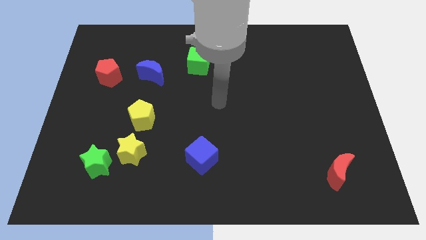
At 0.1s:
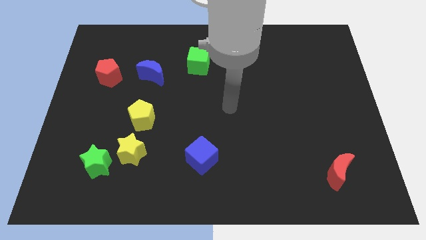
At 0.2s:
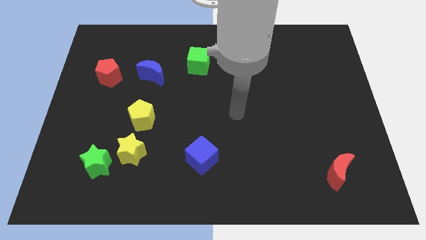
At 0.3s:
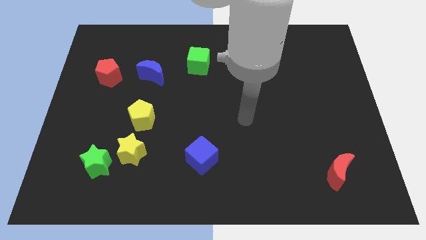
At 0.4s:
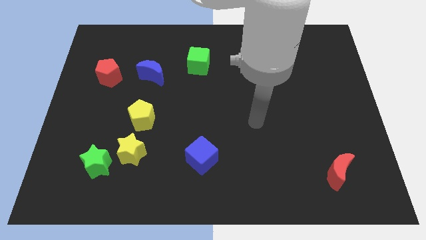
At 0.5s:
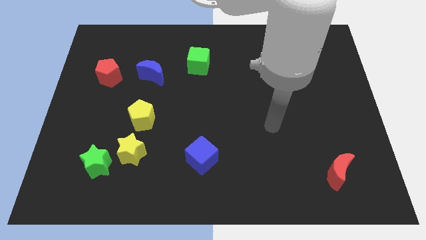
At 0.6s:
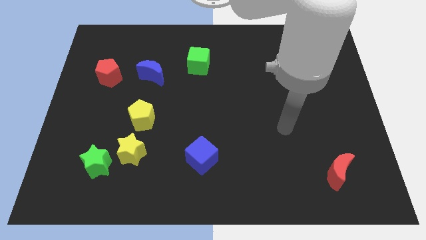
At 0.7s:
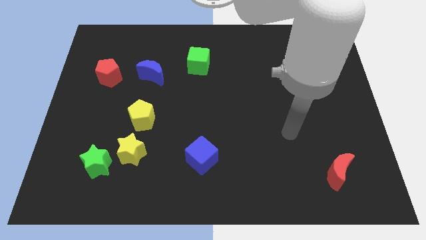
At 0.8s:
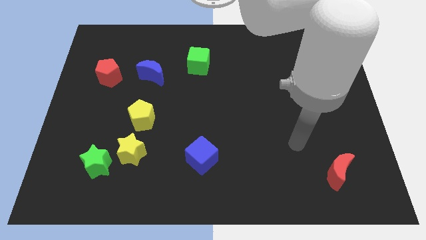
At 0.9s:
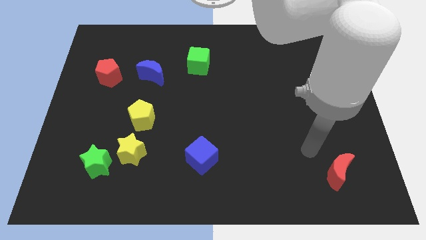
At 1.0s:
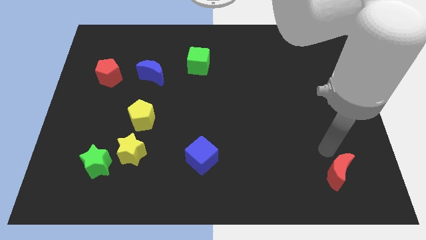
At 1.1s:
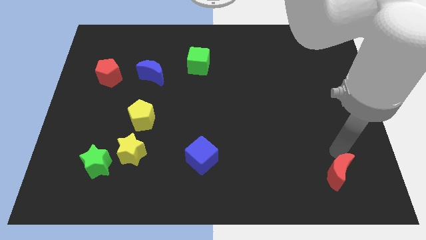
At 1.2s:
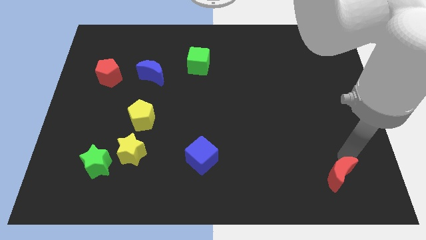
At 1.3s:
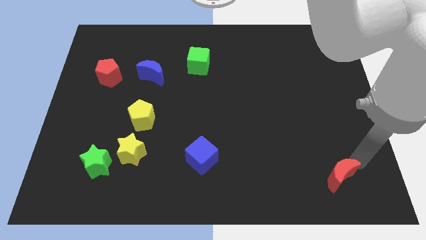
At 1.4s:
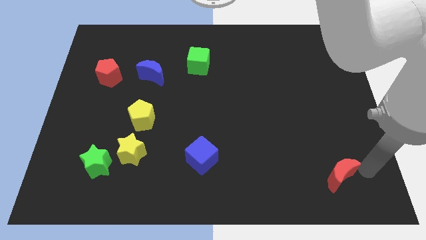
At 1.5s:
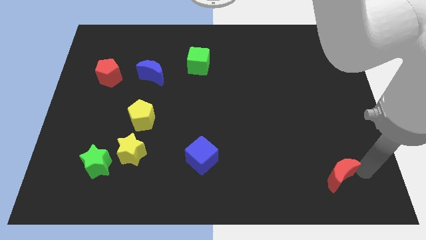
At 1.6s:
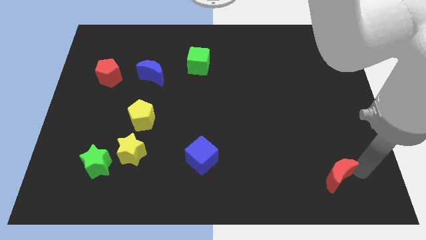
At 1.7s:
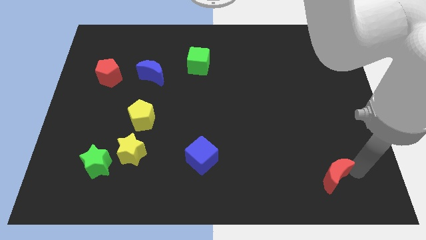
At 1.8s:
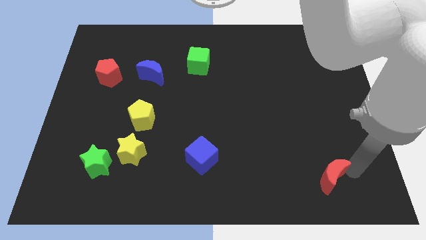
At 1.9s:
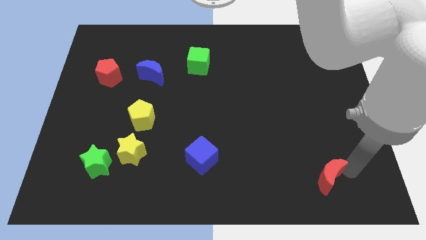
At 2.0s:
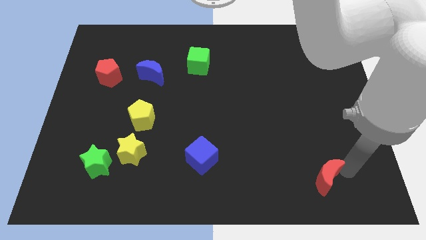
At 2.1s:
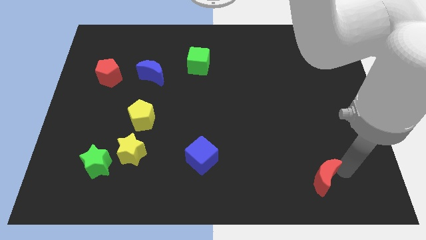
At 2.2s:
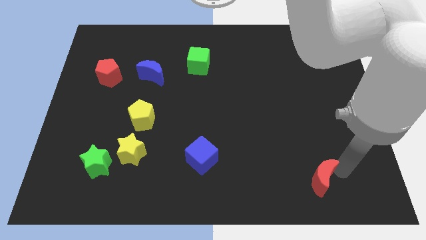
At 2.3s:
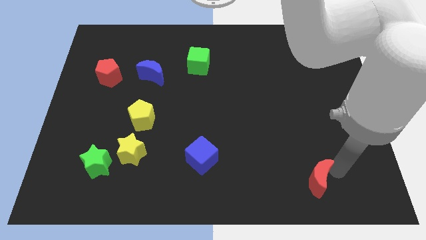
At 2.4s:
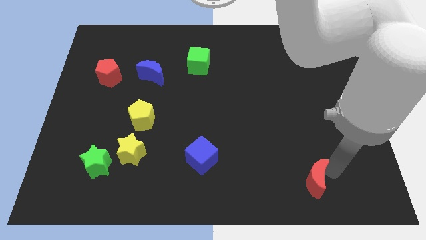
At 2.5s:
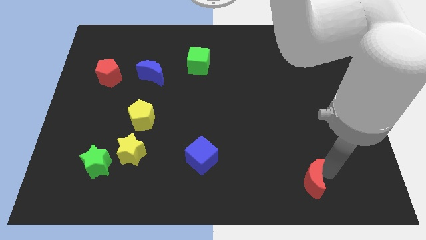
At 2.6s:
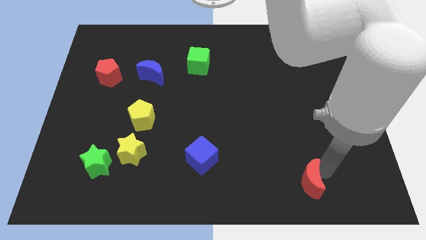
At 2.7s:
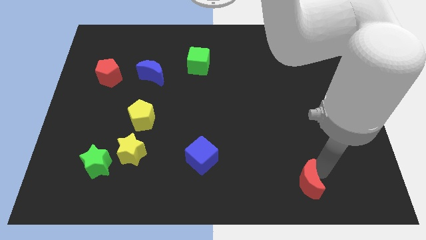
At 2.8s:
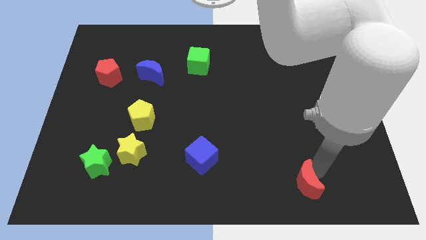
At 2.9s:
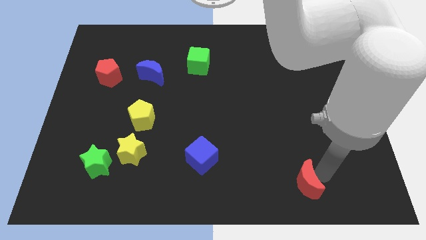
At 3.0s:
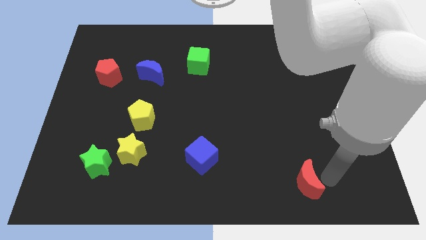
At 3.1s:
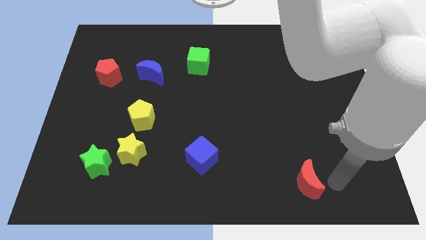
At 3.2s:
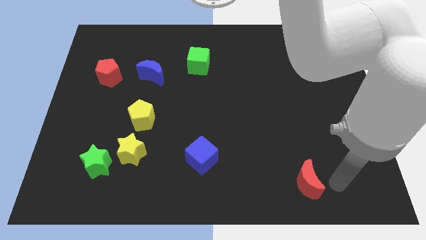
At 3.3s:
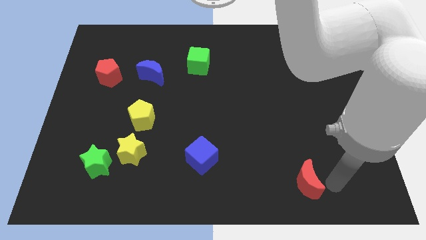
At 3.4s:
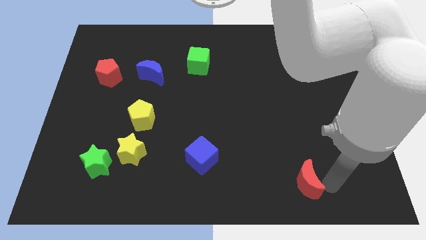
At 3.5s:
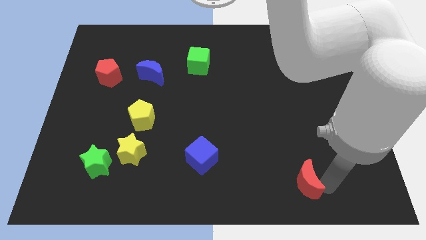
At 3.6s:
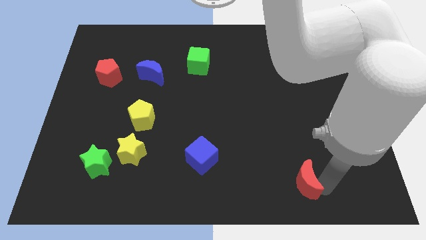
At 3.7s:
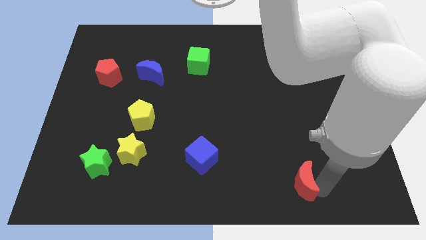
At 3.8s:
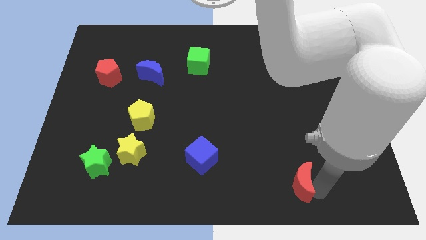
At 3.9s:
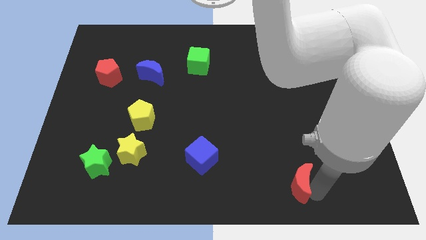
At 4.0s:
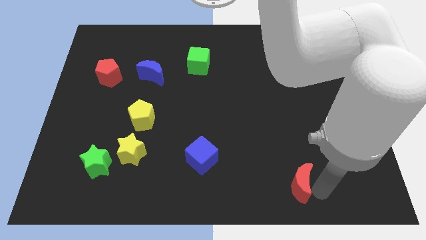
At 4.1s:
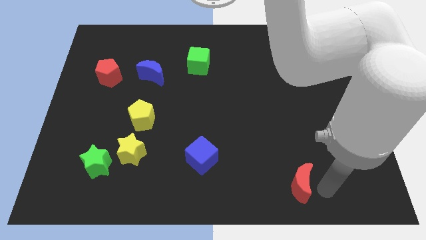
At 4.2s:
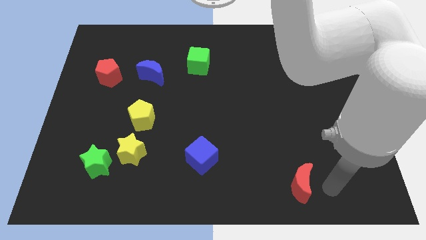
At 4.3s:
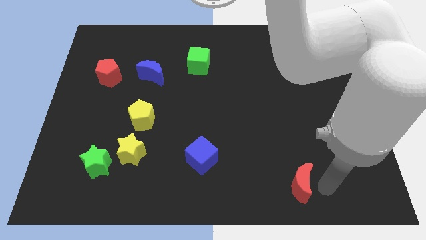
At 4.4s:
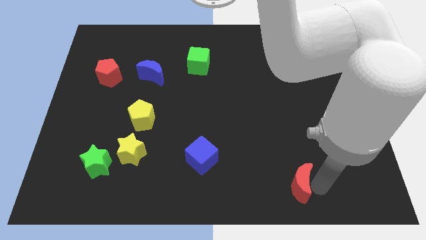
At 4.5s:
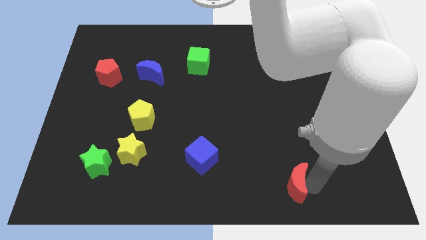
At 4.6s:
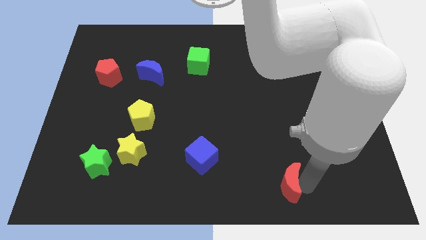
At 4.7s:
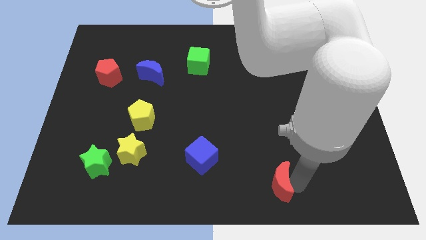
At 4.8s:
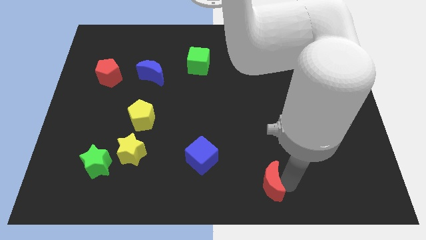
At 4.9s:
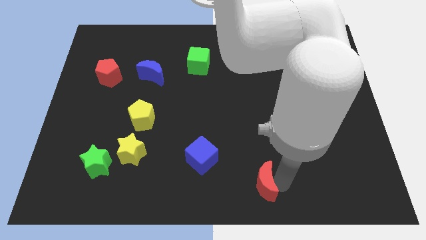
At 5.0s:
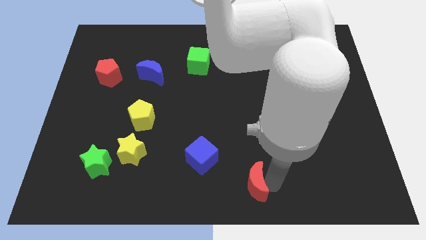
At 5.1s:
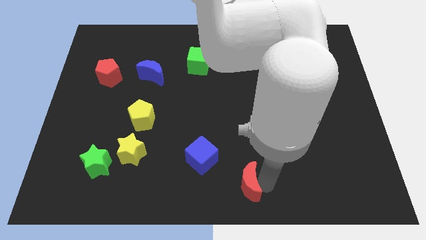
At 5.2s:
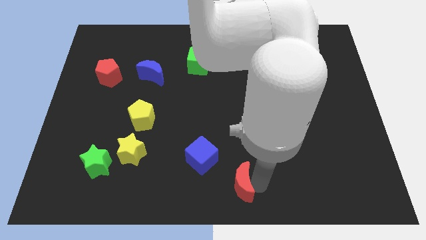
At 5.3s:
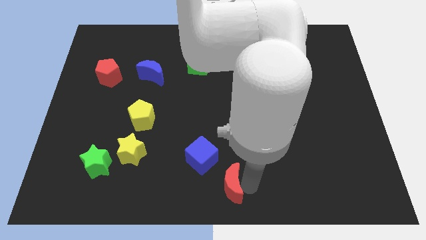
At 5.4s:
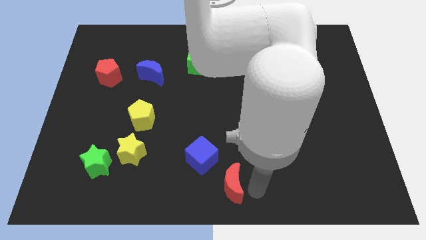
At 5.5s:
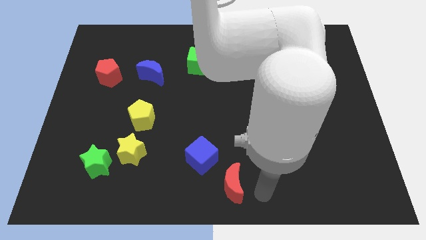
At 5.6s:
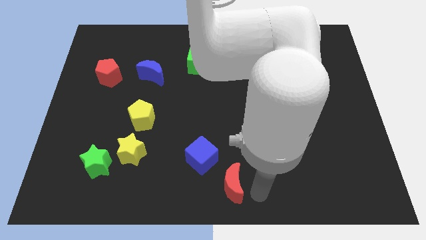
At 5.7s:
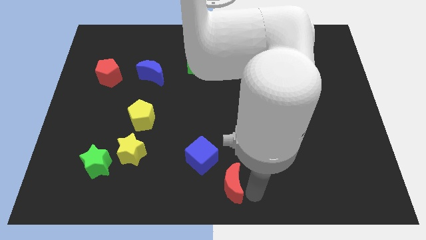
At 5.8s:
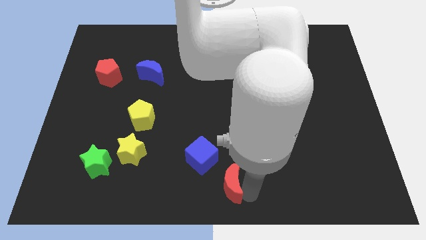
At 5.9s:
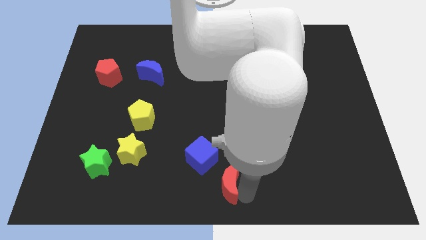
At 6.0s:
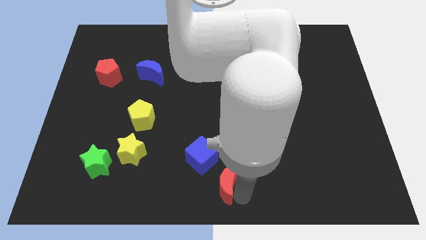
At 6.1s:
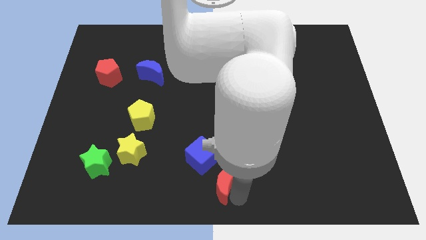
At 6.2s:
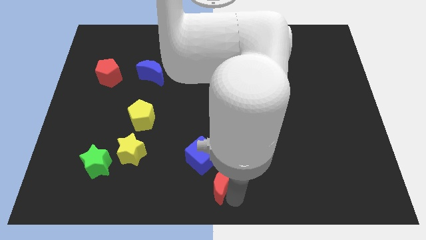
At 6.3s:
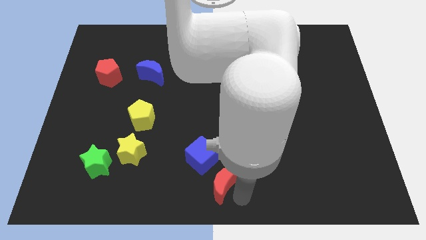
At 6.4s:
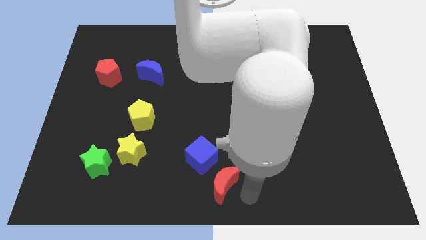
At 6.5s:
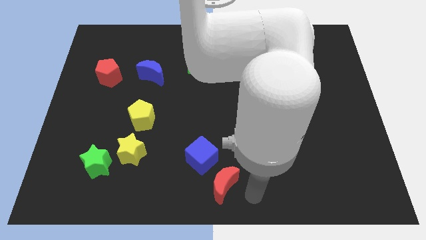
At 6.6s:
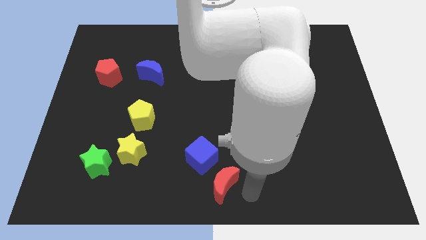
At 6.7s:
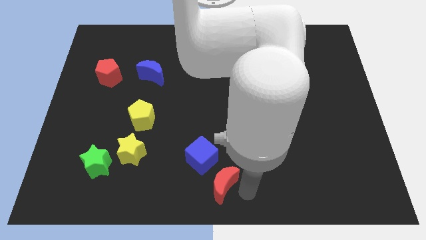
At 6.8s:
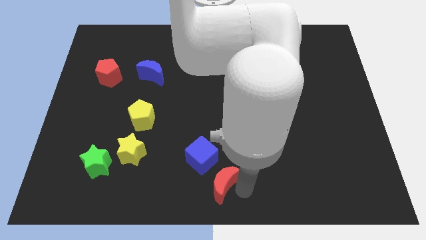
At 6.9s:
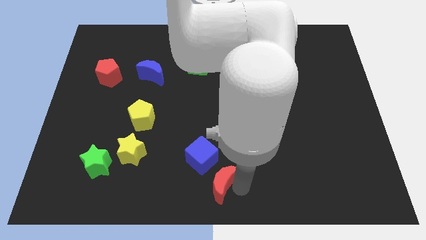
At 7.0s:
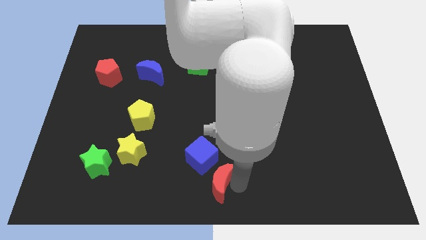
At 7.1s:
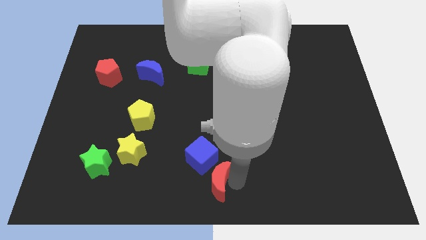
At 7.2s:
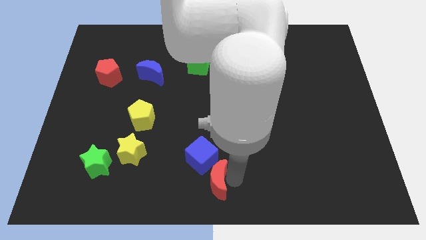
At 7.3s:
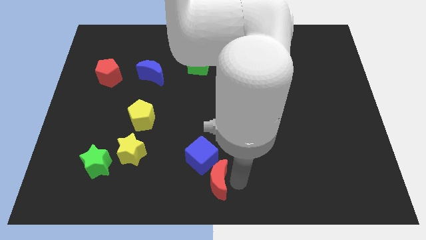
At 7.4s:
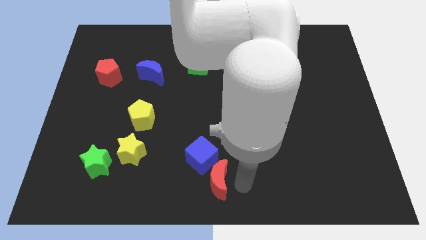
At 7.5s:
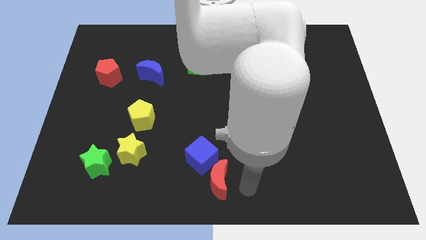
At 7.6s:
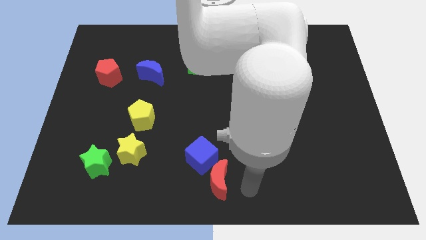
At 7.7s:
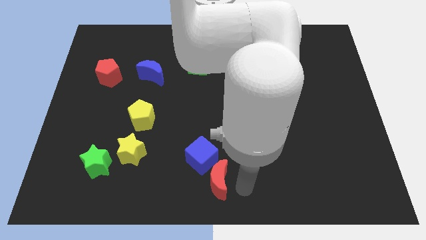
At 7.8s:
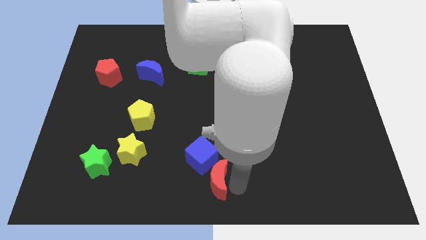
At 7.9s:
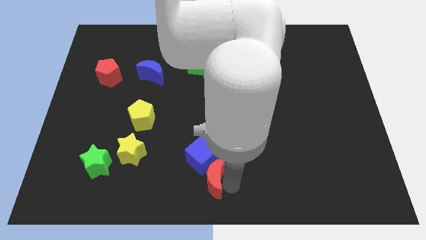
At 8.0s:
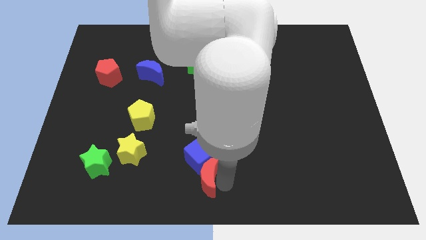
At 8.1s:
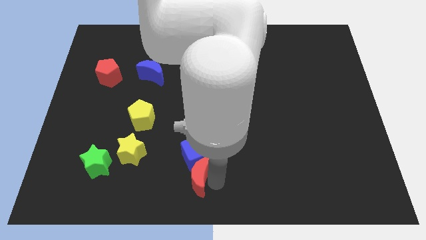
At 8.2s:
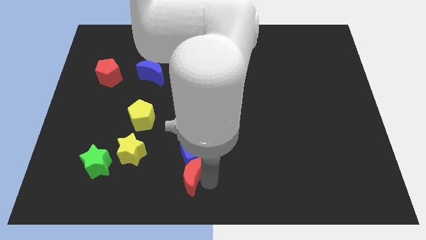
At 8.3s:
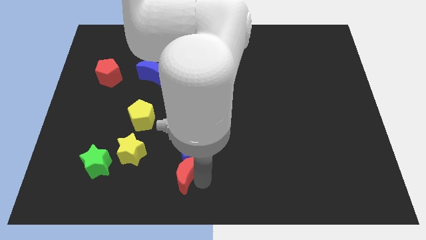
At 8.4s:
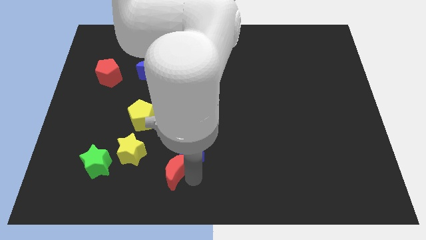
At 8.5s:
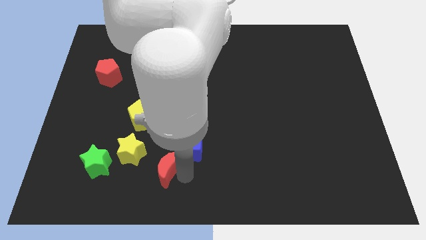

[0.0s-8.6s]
slide the red moon to the right of the green star
